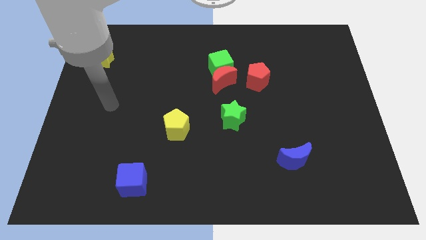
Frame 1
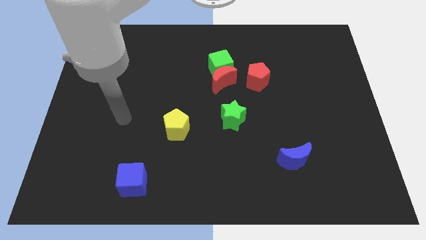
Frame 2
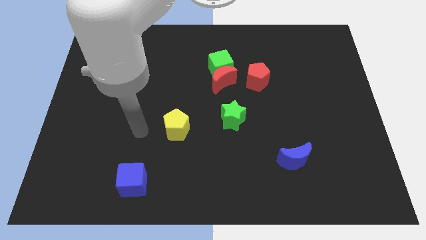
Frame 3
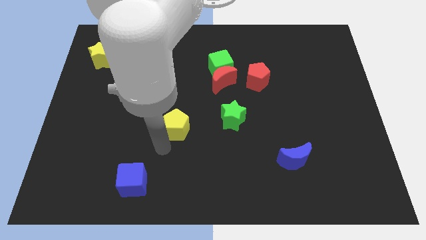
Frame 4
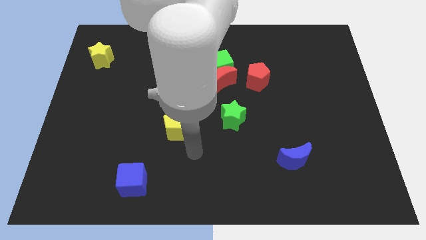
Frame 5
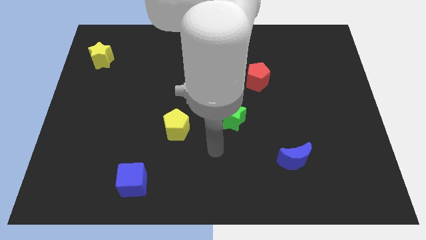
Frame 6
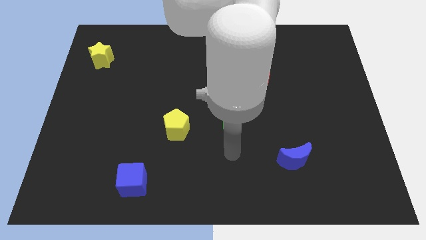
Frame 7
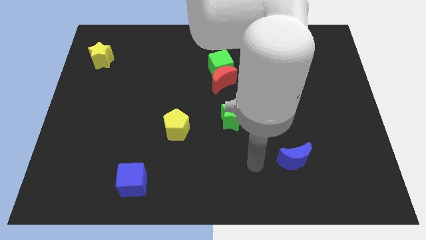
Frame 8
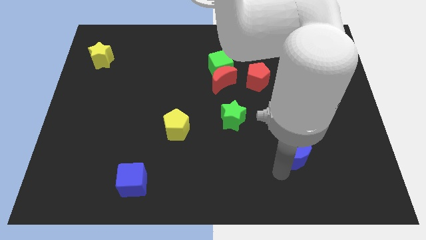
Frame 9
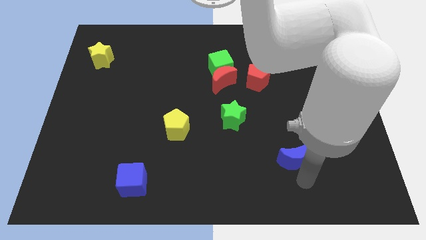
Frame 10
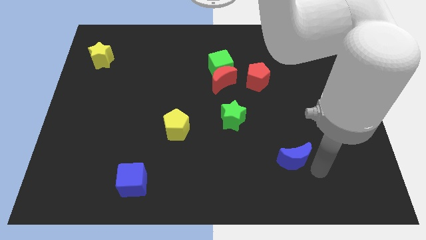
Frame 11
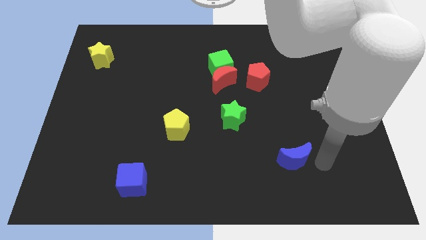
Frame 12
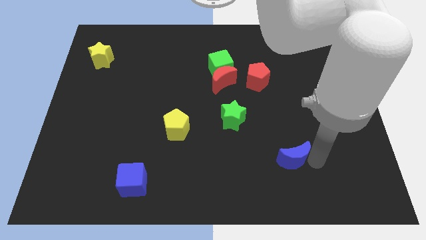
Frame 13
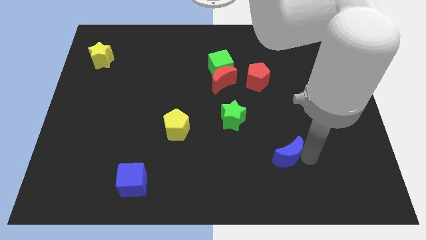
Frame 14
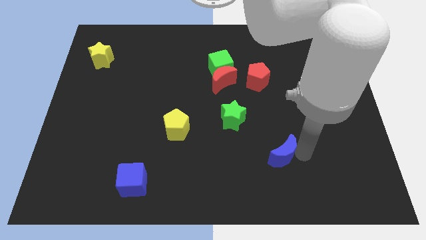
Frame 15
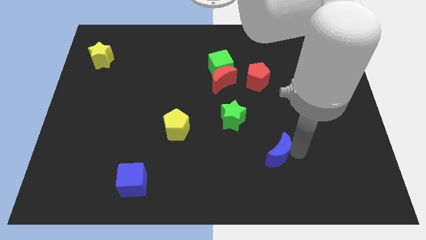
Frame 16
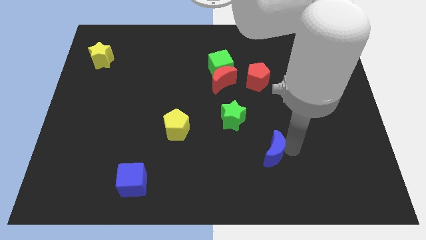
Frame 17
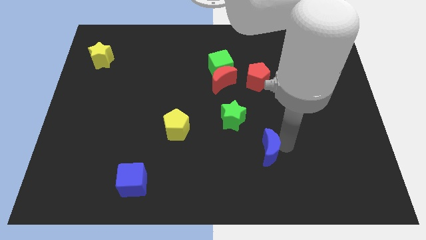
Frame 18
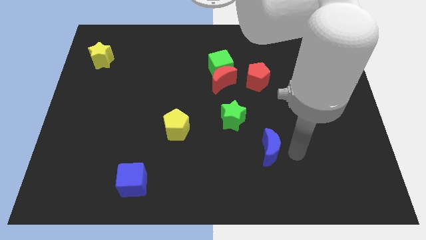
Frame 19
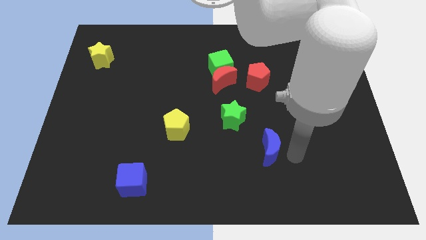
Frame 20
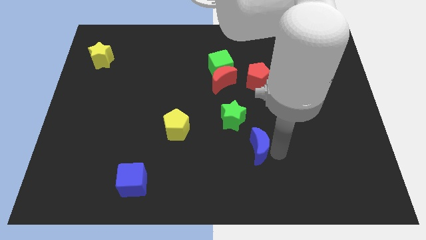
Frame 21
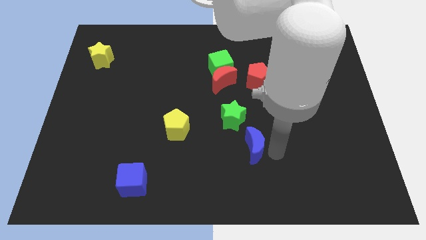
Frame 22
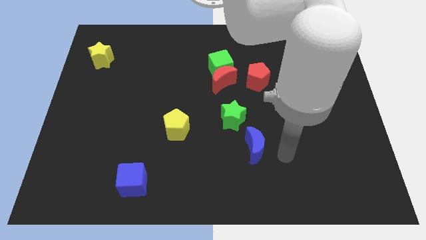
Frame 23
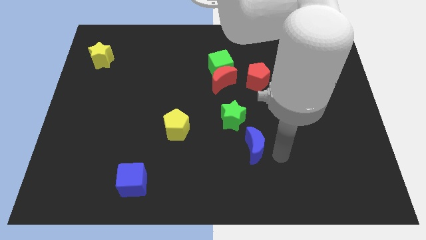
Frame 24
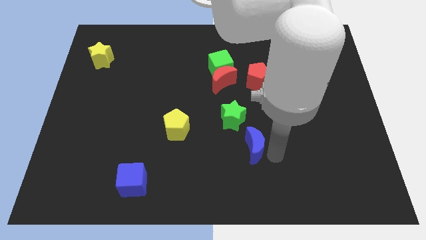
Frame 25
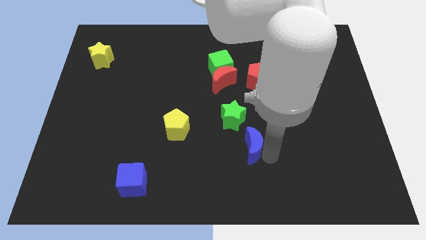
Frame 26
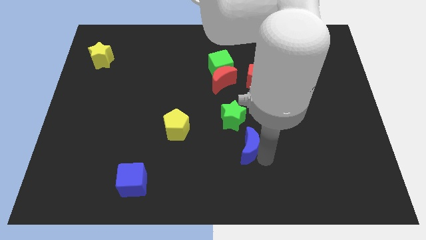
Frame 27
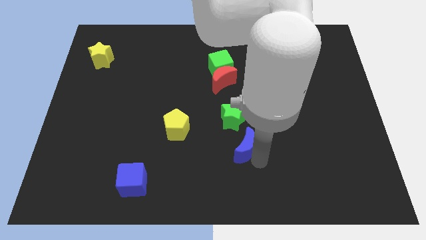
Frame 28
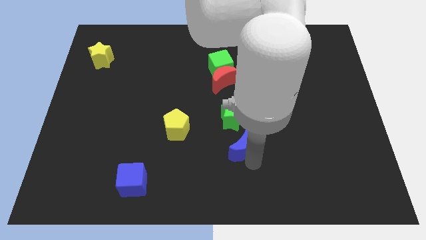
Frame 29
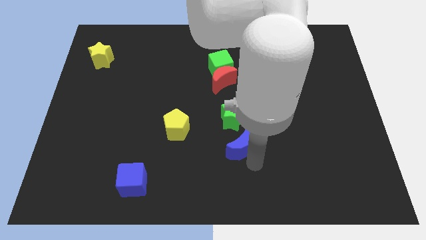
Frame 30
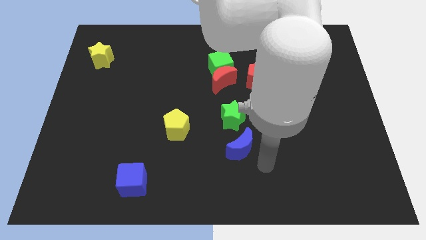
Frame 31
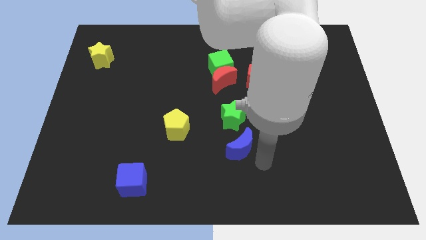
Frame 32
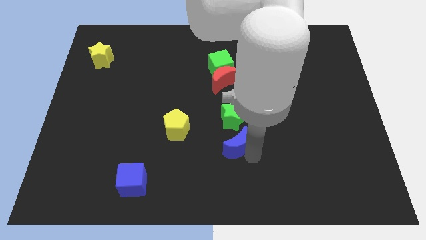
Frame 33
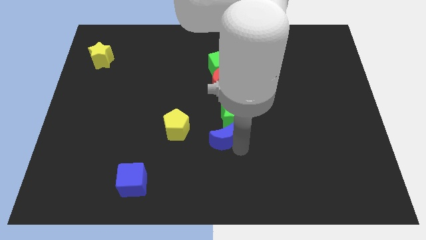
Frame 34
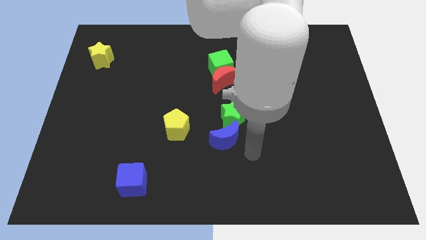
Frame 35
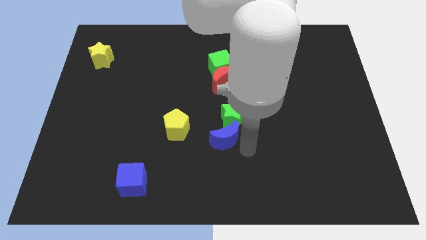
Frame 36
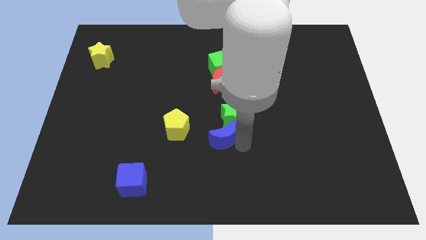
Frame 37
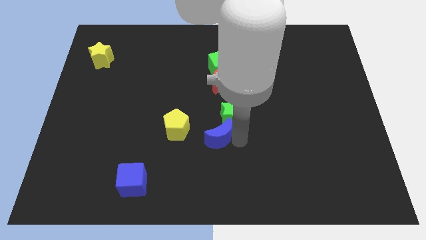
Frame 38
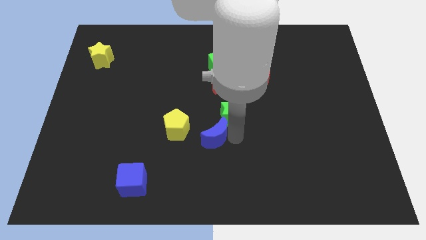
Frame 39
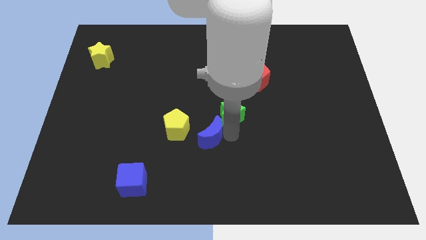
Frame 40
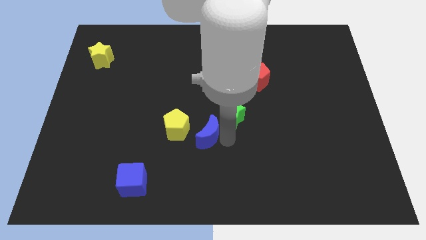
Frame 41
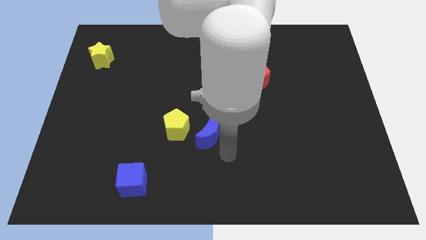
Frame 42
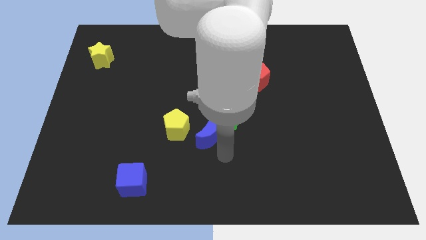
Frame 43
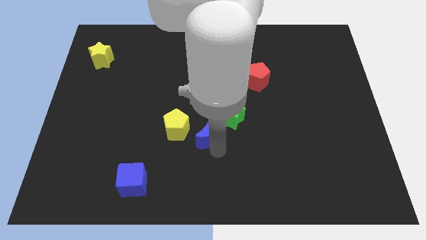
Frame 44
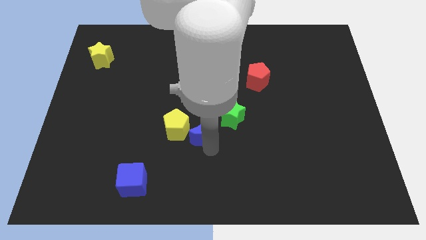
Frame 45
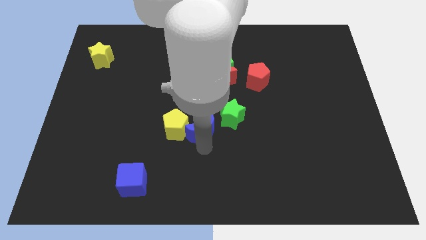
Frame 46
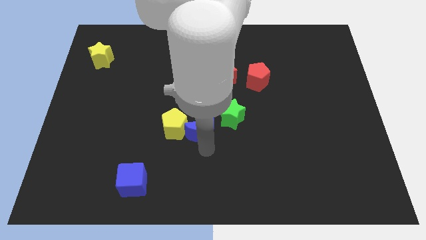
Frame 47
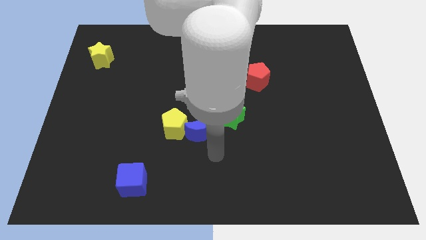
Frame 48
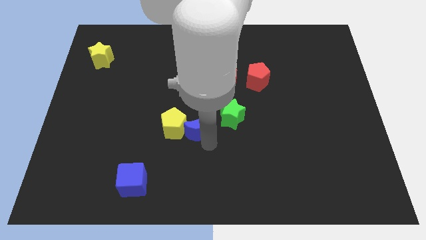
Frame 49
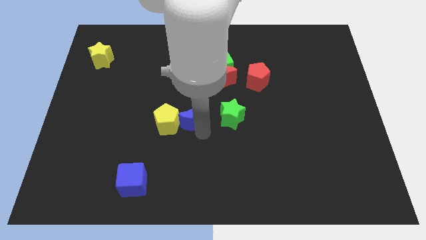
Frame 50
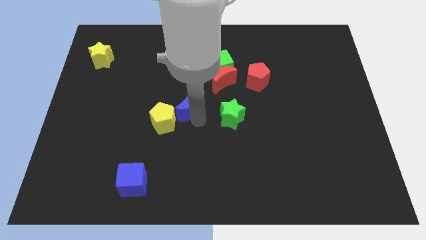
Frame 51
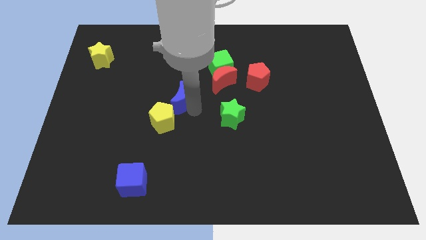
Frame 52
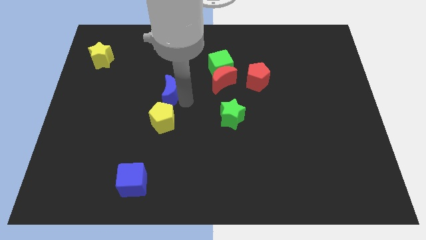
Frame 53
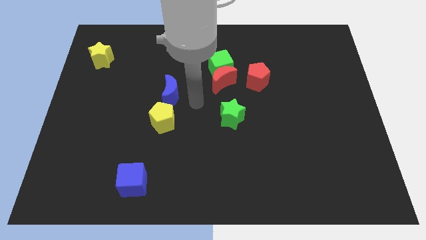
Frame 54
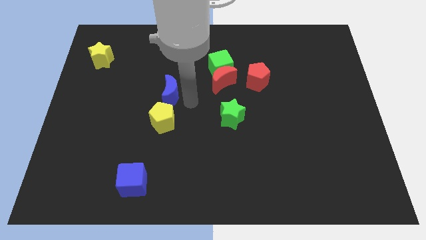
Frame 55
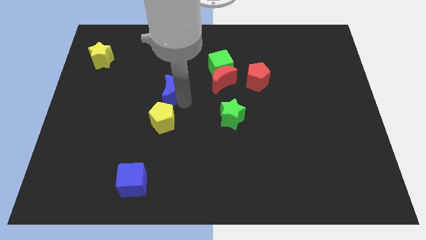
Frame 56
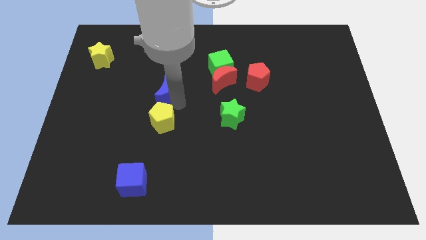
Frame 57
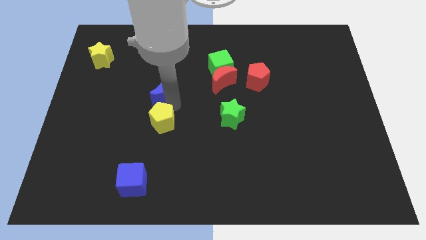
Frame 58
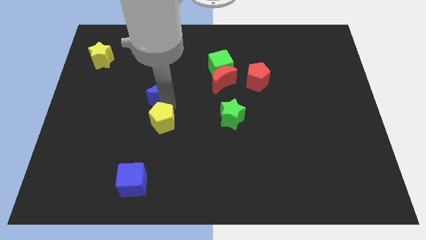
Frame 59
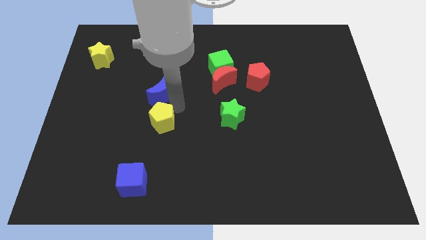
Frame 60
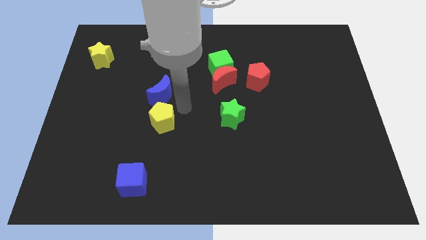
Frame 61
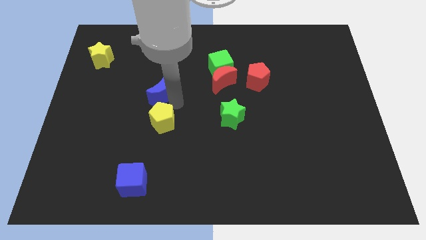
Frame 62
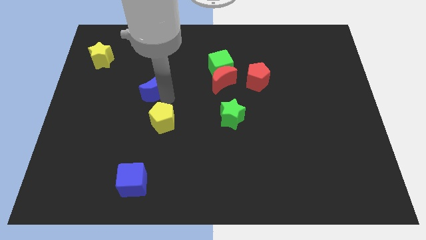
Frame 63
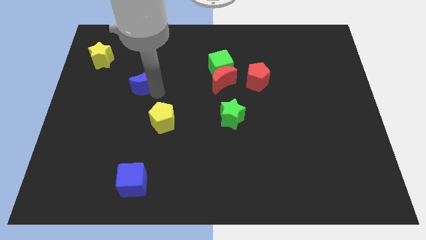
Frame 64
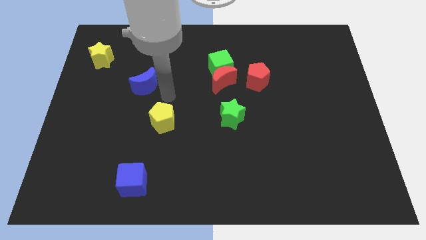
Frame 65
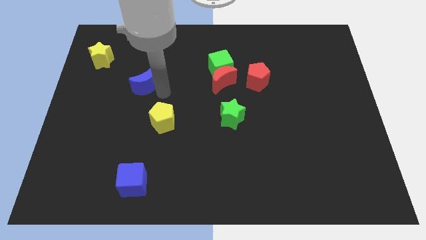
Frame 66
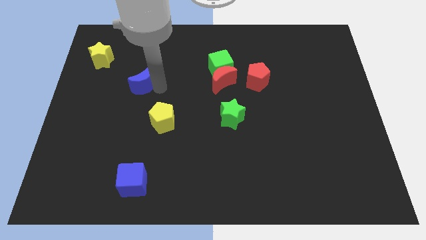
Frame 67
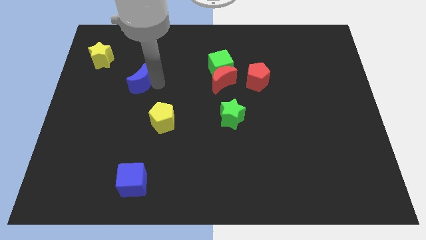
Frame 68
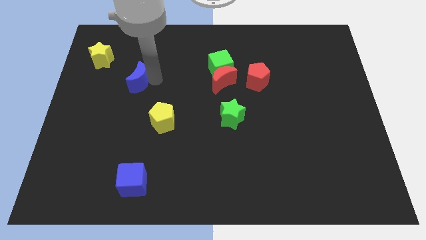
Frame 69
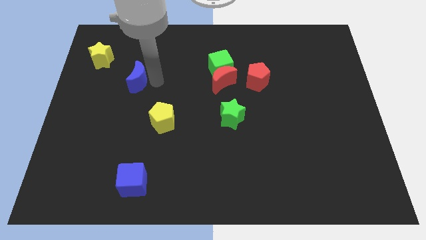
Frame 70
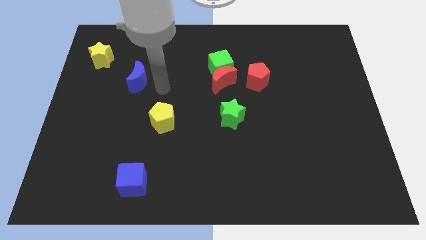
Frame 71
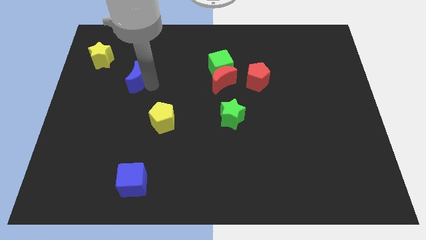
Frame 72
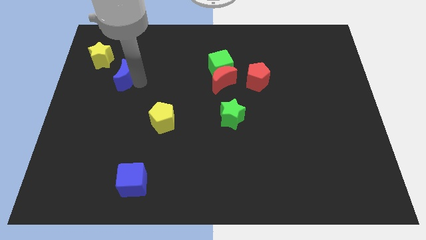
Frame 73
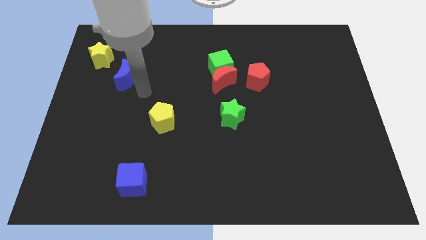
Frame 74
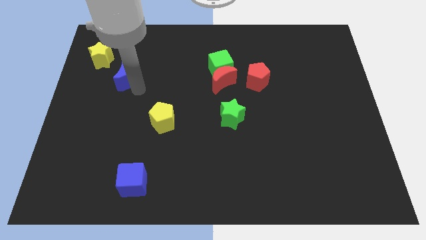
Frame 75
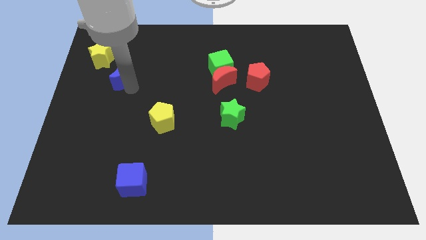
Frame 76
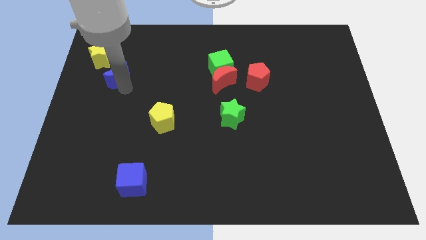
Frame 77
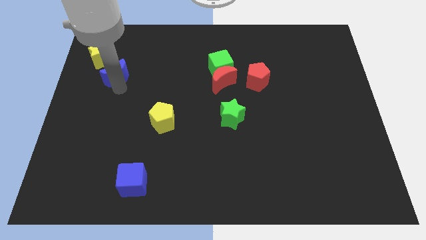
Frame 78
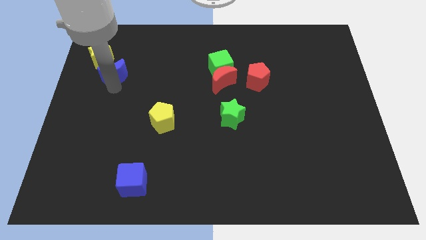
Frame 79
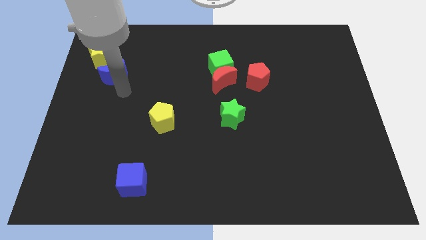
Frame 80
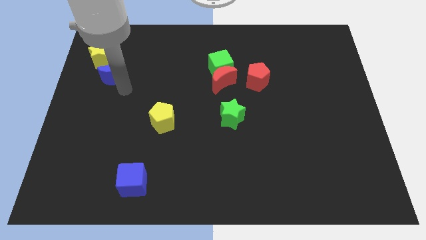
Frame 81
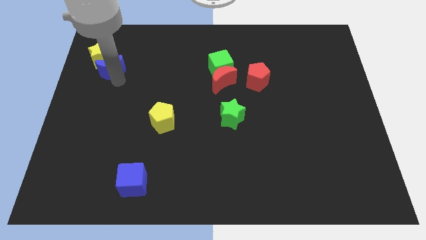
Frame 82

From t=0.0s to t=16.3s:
slide the blue moon close to the yellow star
